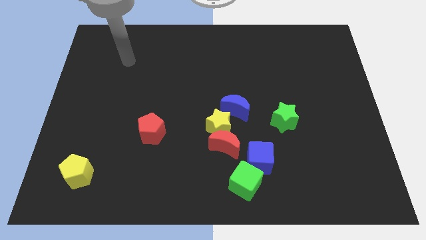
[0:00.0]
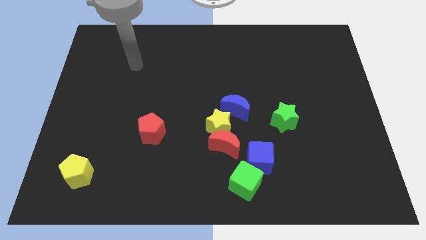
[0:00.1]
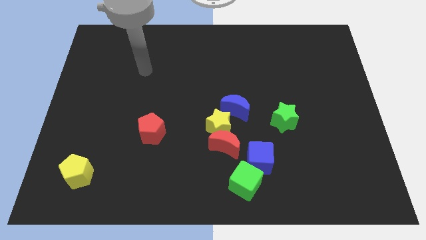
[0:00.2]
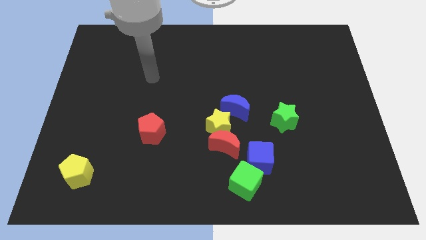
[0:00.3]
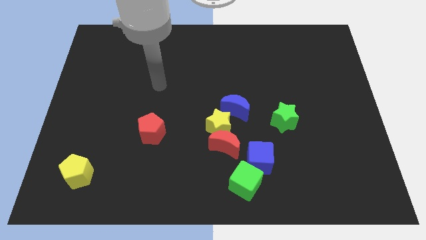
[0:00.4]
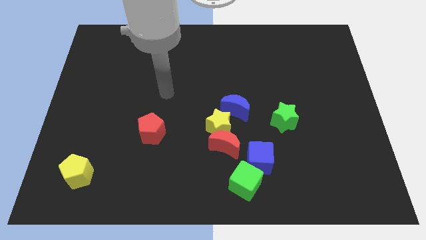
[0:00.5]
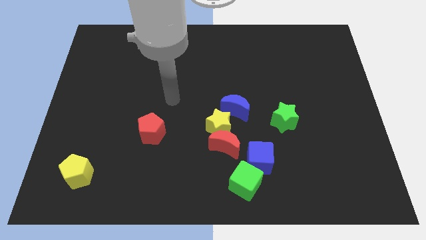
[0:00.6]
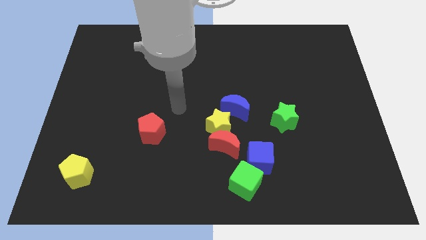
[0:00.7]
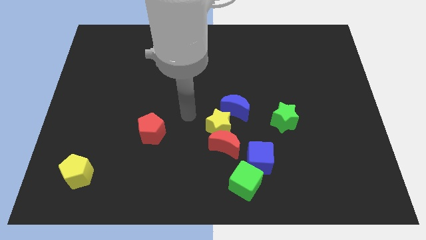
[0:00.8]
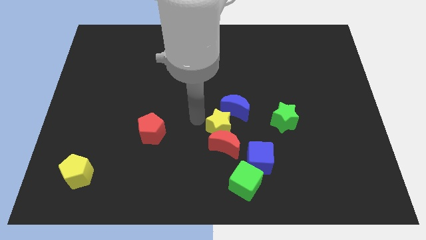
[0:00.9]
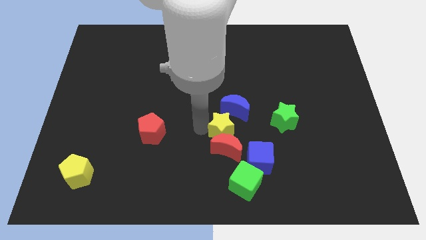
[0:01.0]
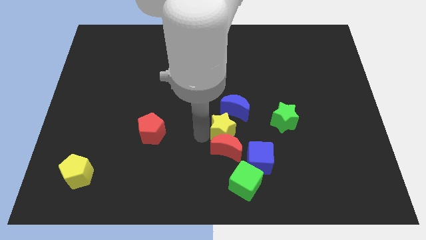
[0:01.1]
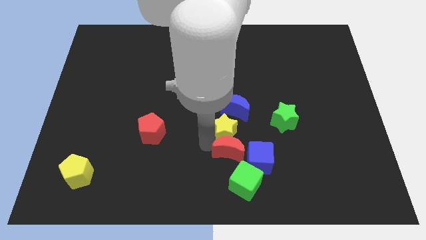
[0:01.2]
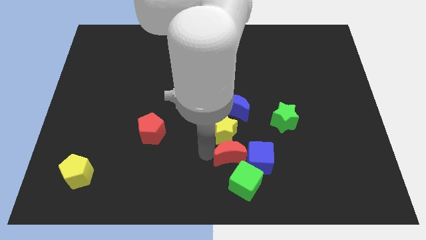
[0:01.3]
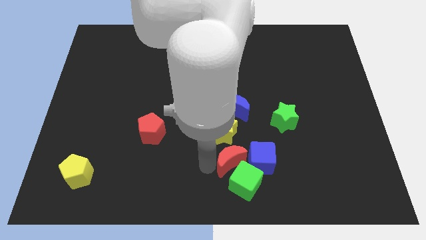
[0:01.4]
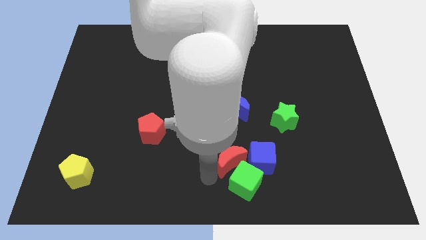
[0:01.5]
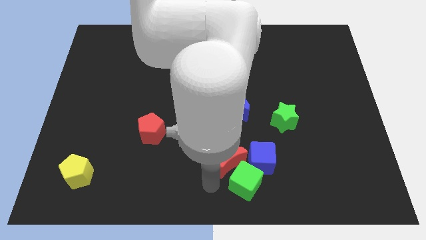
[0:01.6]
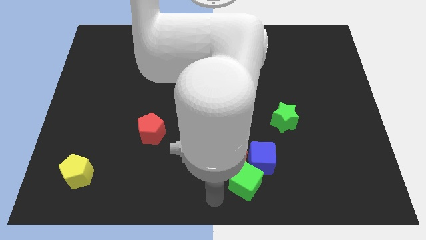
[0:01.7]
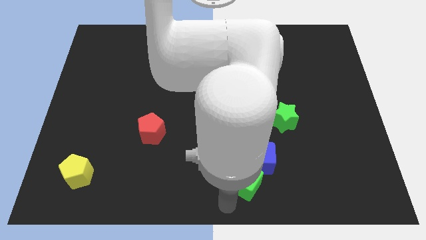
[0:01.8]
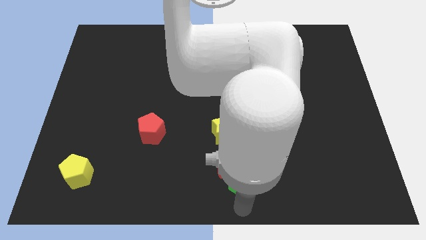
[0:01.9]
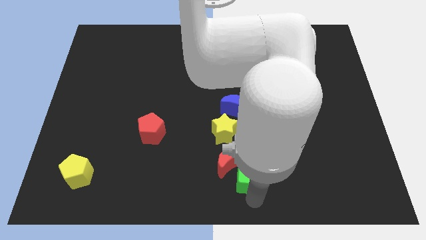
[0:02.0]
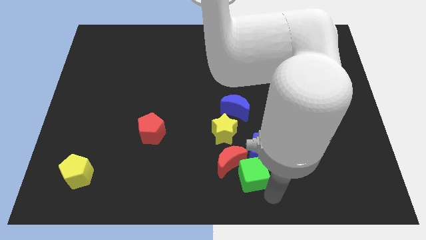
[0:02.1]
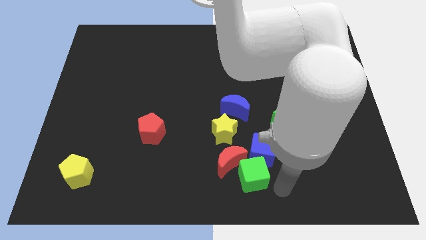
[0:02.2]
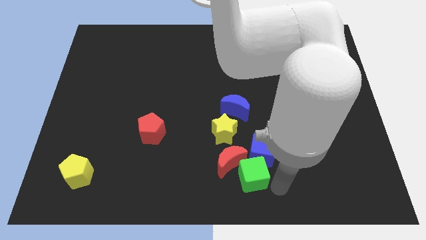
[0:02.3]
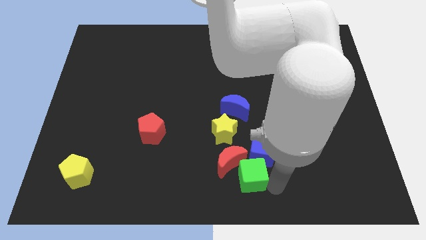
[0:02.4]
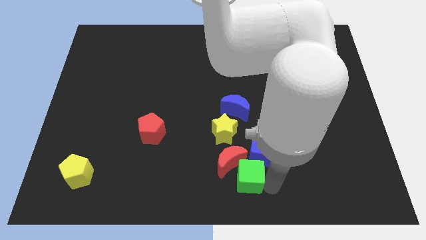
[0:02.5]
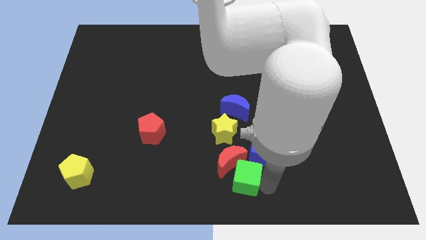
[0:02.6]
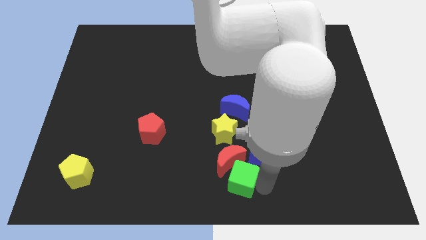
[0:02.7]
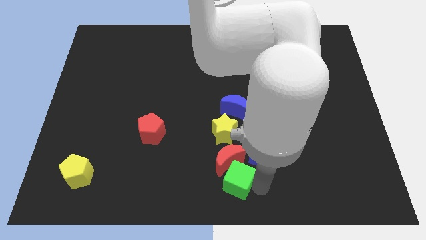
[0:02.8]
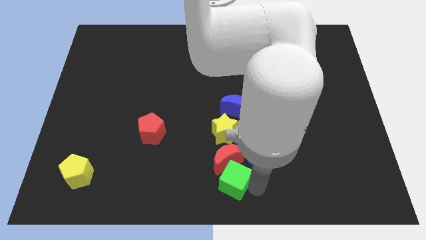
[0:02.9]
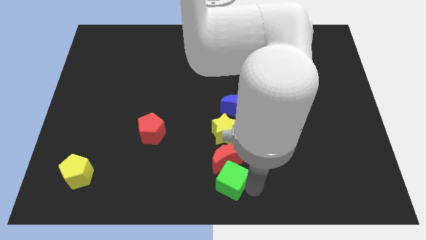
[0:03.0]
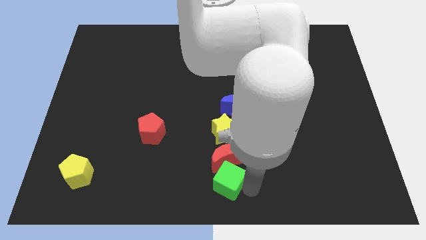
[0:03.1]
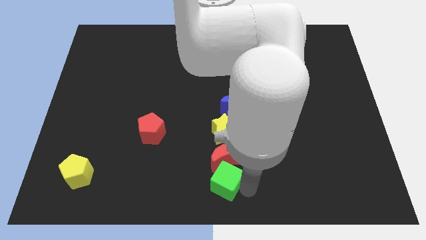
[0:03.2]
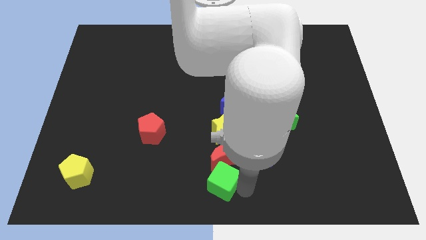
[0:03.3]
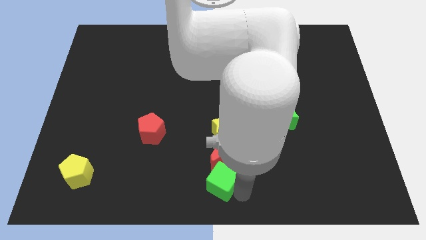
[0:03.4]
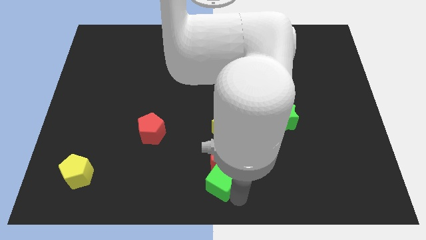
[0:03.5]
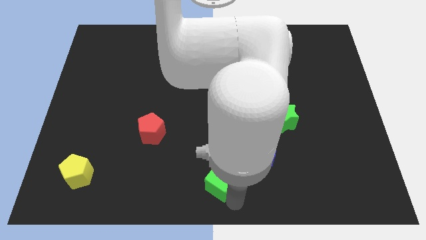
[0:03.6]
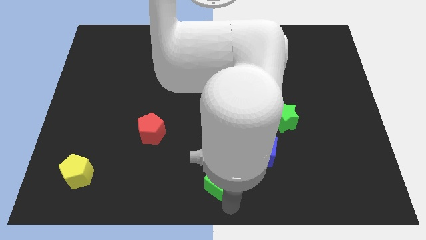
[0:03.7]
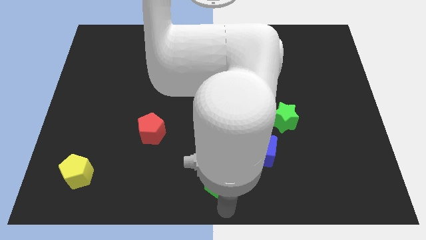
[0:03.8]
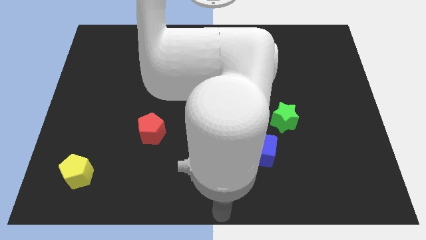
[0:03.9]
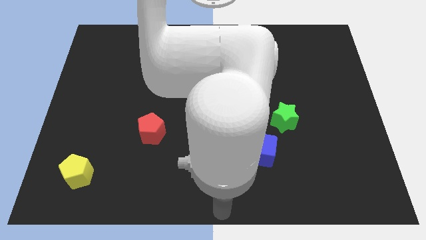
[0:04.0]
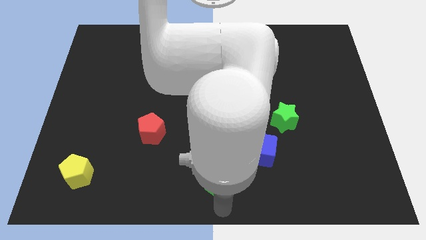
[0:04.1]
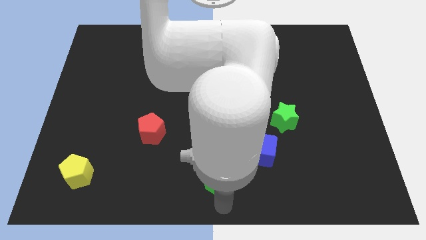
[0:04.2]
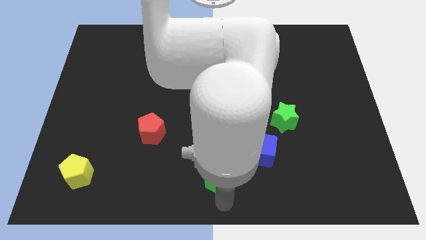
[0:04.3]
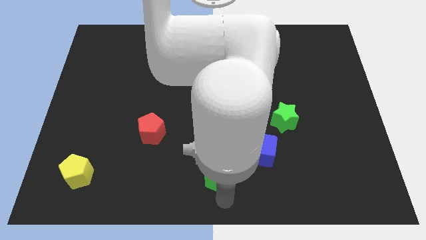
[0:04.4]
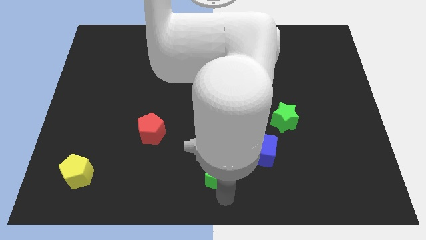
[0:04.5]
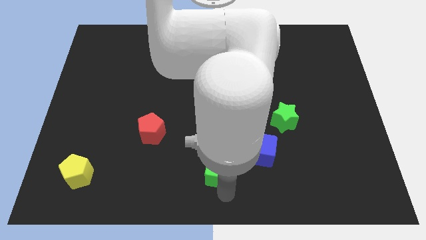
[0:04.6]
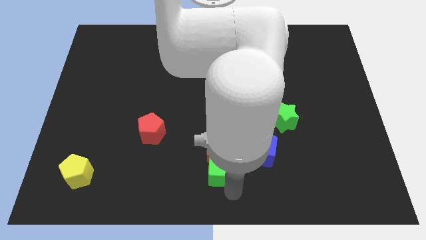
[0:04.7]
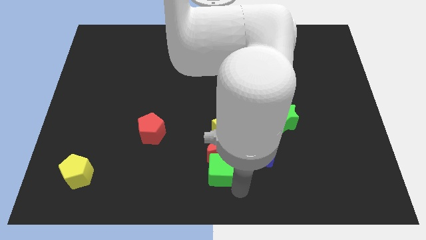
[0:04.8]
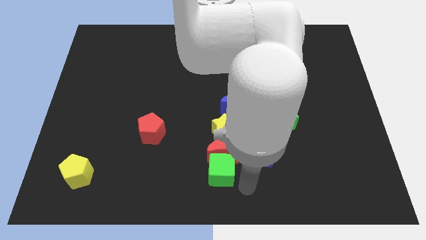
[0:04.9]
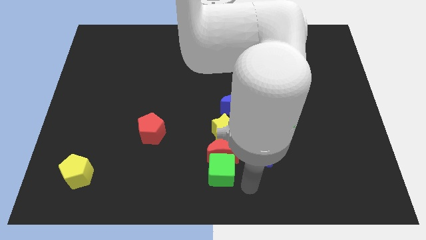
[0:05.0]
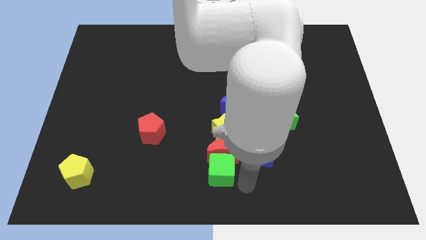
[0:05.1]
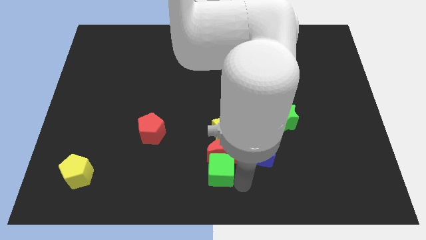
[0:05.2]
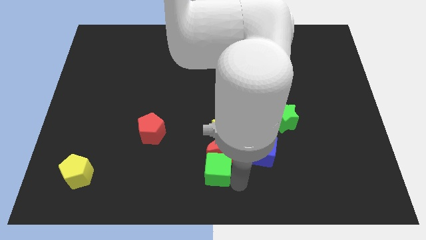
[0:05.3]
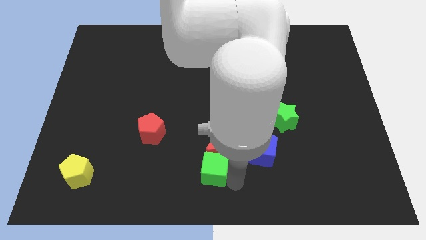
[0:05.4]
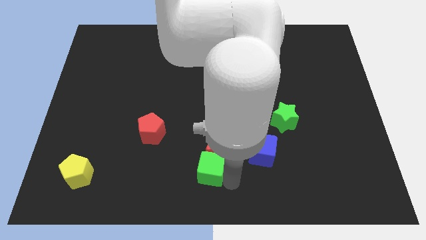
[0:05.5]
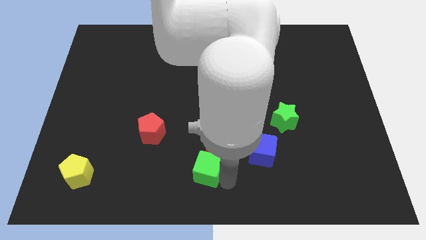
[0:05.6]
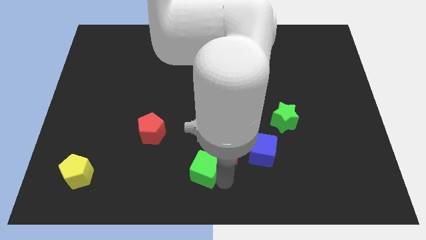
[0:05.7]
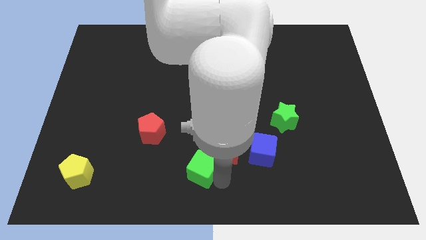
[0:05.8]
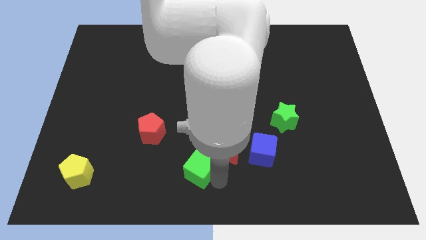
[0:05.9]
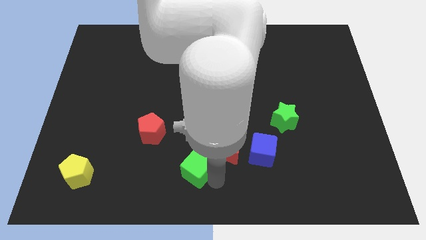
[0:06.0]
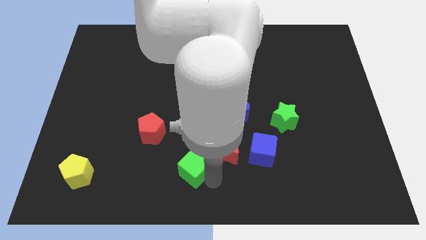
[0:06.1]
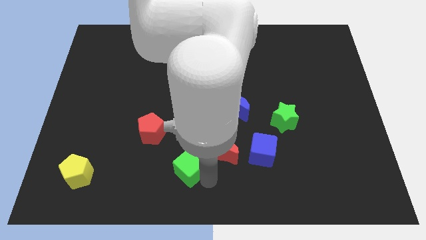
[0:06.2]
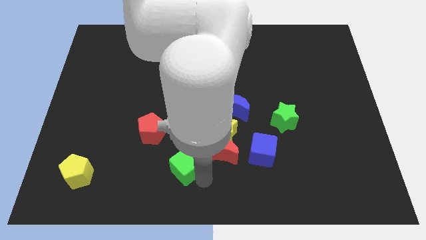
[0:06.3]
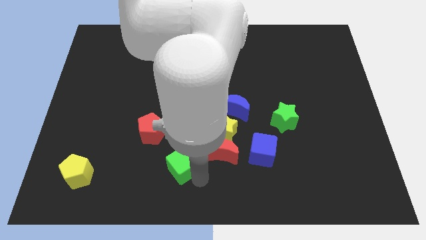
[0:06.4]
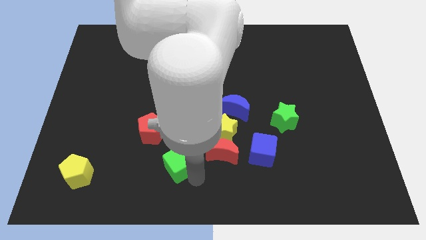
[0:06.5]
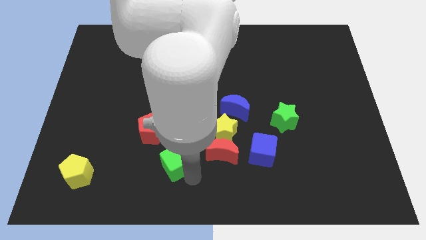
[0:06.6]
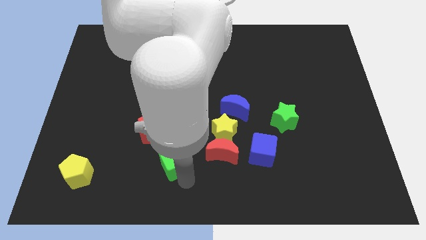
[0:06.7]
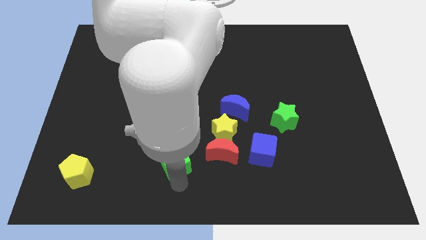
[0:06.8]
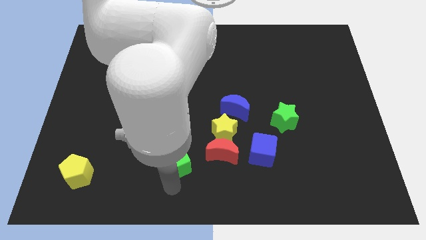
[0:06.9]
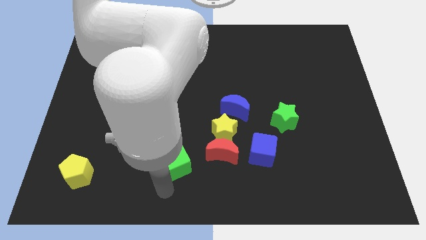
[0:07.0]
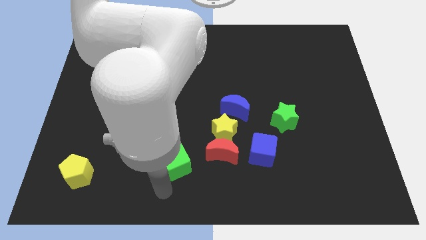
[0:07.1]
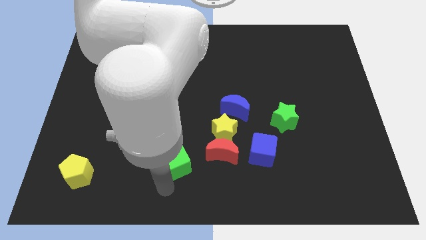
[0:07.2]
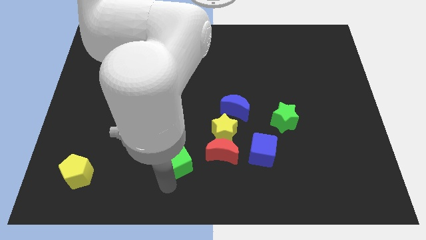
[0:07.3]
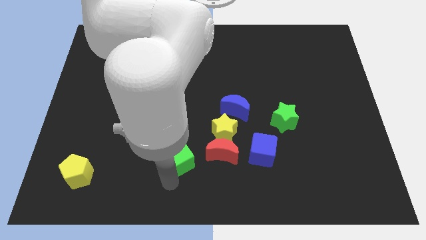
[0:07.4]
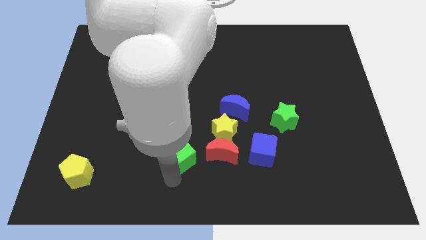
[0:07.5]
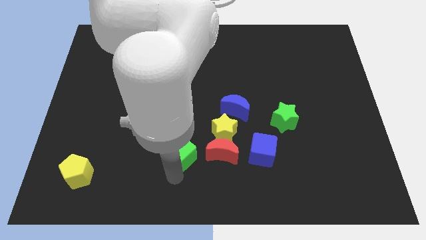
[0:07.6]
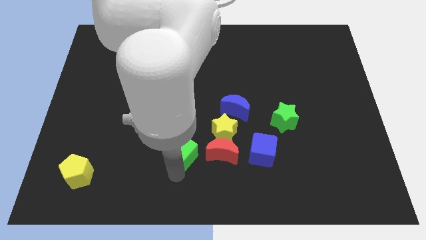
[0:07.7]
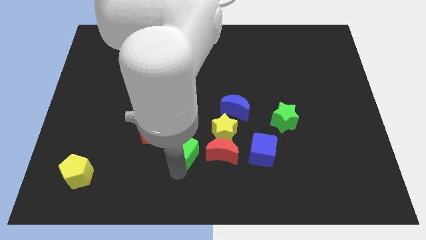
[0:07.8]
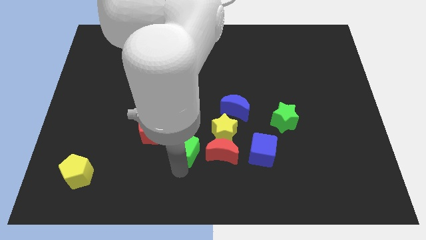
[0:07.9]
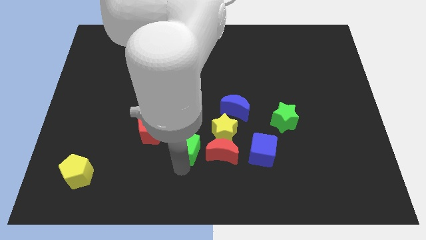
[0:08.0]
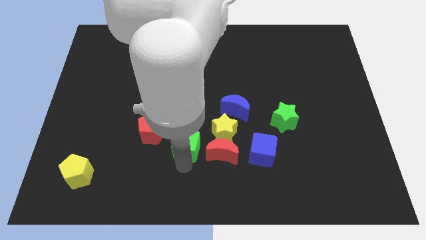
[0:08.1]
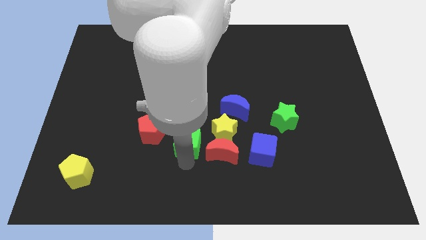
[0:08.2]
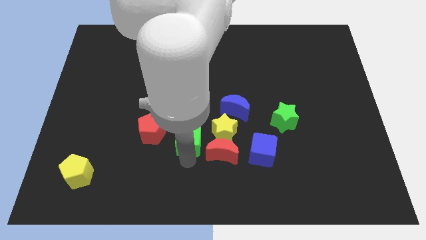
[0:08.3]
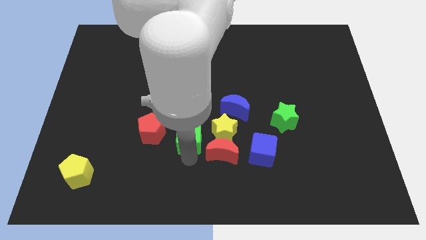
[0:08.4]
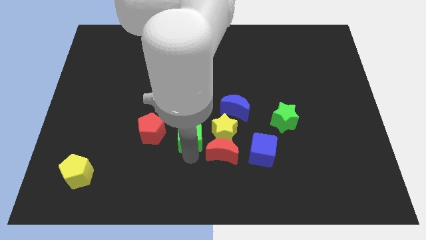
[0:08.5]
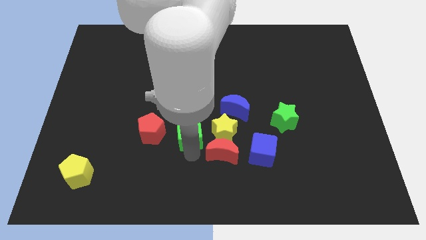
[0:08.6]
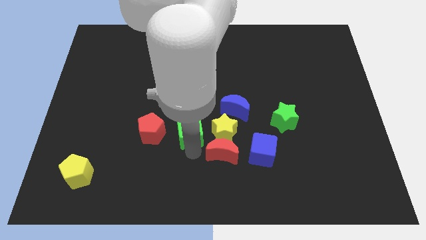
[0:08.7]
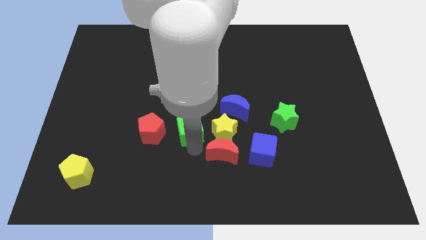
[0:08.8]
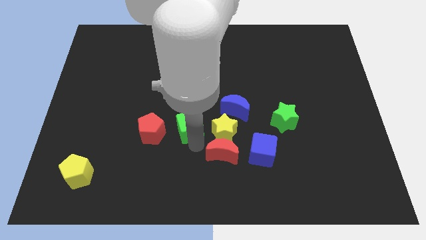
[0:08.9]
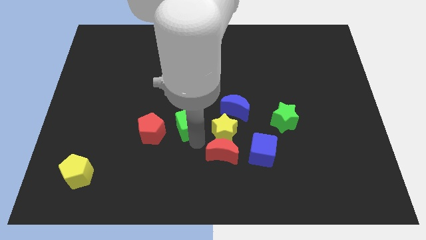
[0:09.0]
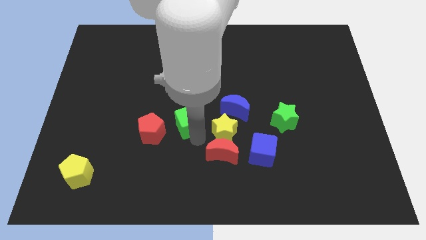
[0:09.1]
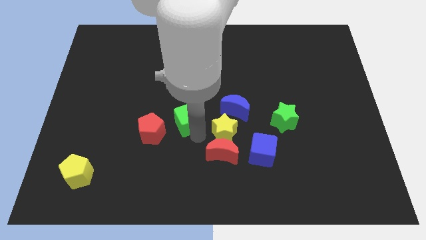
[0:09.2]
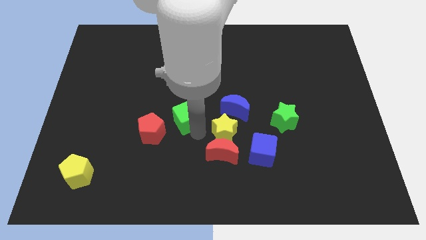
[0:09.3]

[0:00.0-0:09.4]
move the green cube diagonally upwards and to the left
